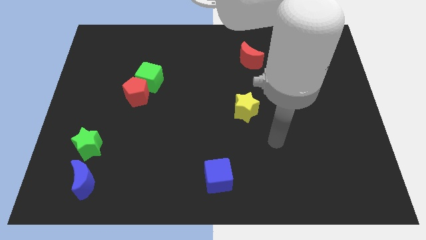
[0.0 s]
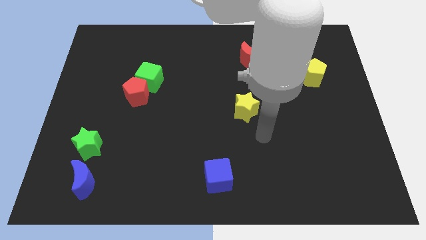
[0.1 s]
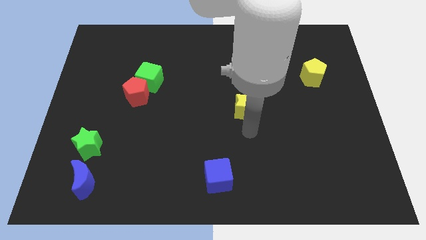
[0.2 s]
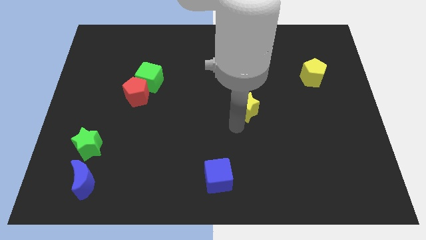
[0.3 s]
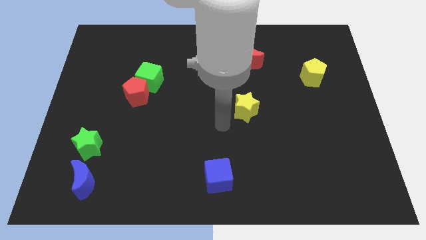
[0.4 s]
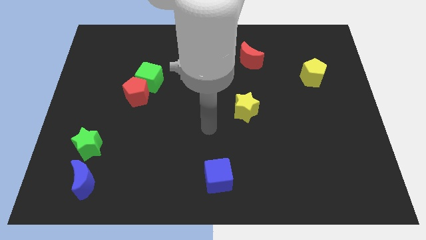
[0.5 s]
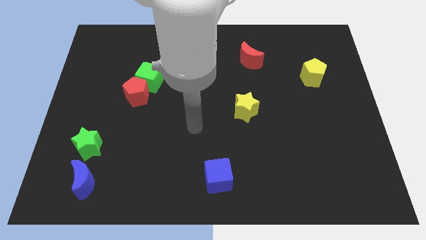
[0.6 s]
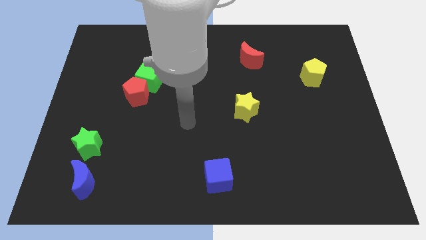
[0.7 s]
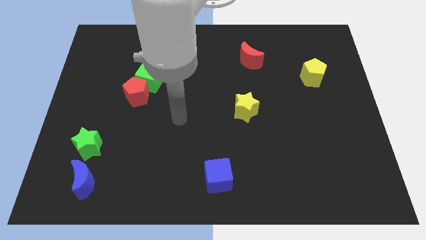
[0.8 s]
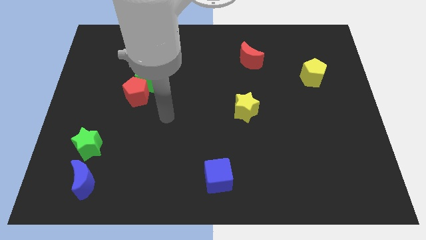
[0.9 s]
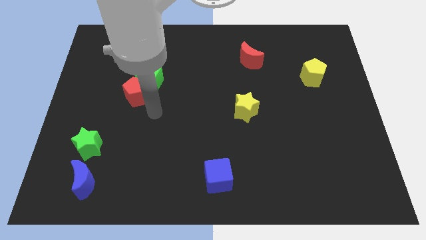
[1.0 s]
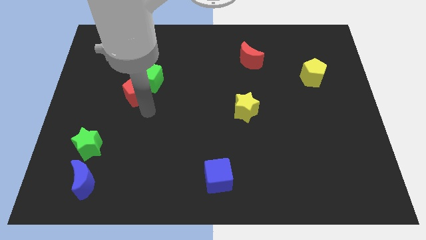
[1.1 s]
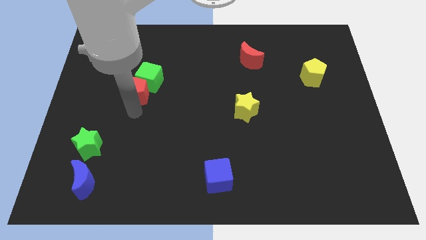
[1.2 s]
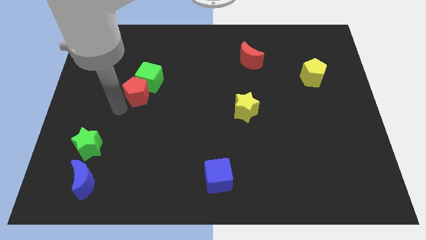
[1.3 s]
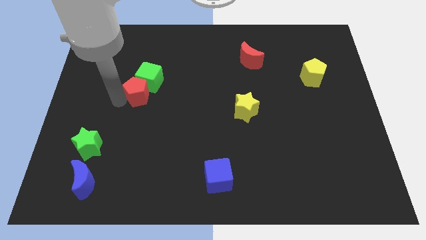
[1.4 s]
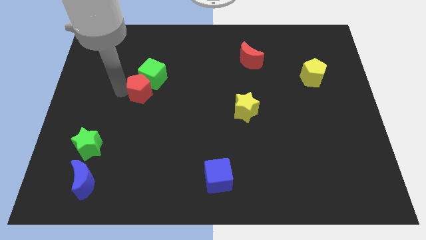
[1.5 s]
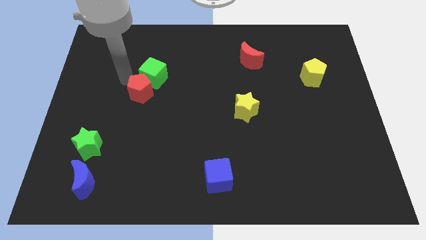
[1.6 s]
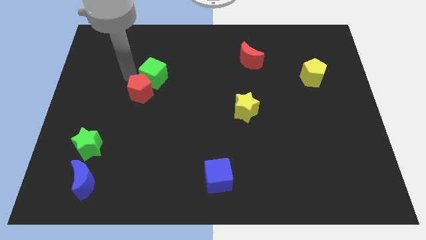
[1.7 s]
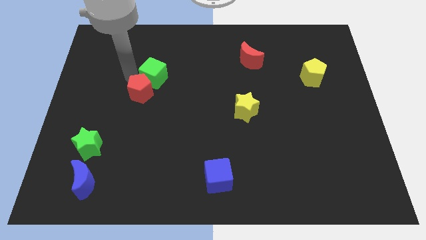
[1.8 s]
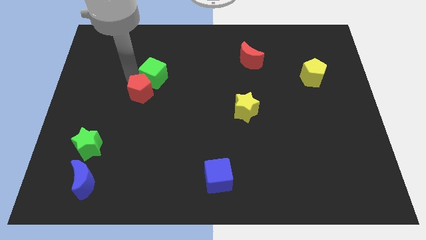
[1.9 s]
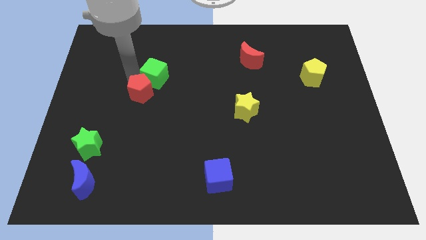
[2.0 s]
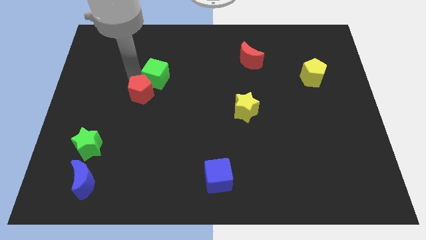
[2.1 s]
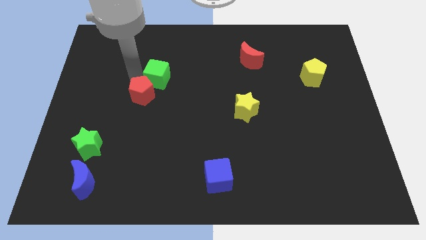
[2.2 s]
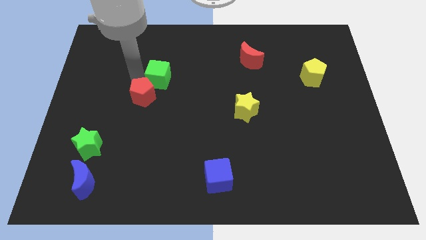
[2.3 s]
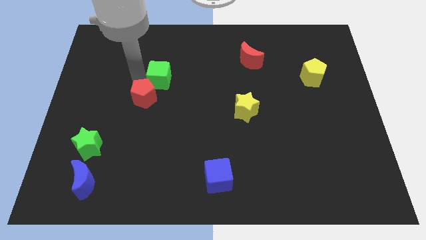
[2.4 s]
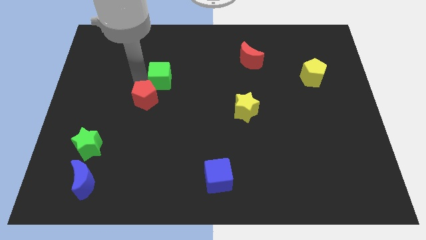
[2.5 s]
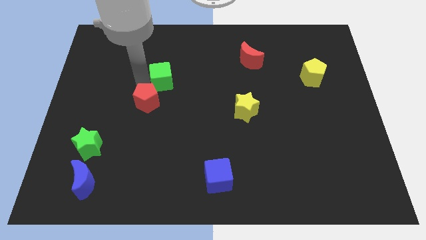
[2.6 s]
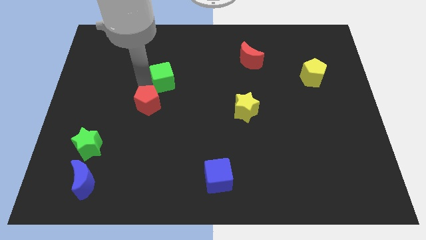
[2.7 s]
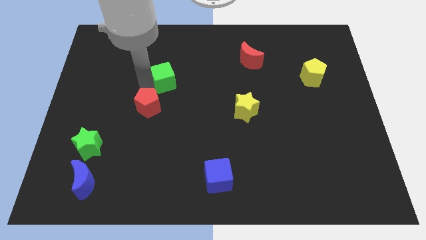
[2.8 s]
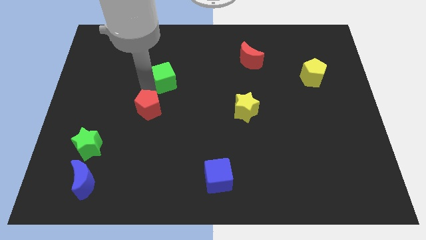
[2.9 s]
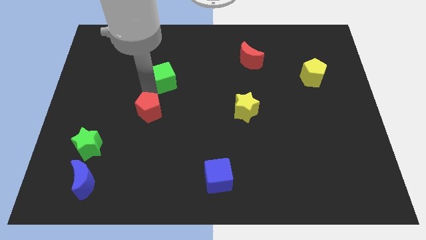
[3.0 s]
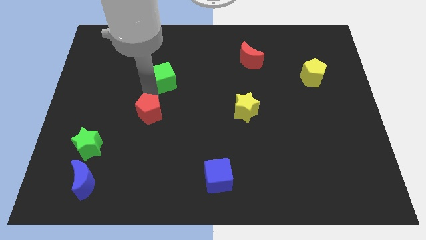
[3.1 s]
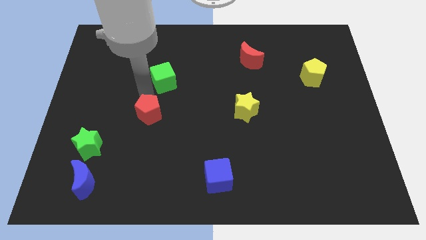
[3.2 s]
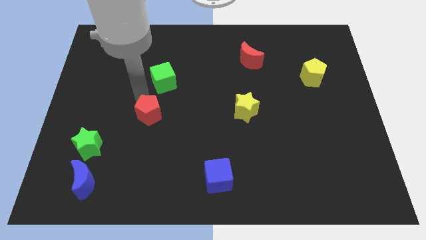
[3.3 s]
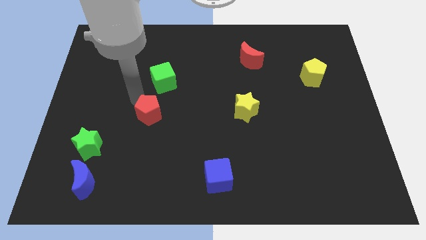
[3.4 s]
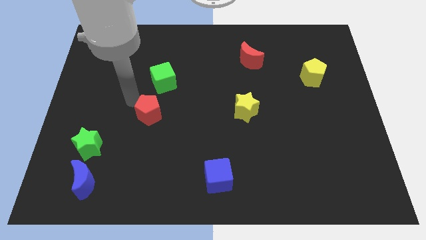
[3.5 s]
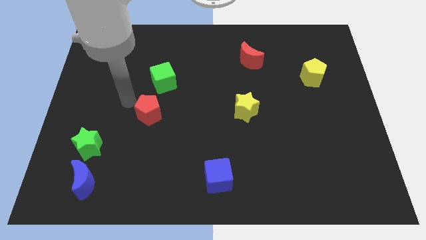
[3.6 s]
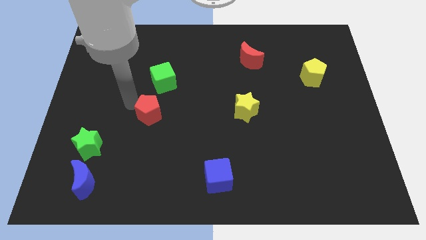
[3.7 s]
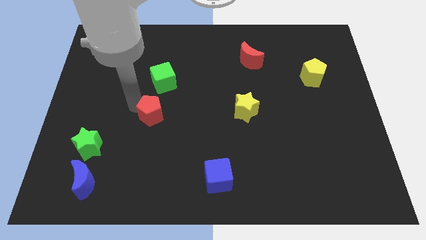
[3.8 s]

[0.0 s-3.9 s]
slightly move the red pentagon down and right diagonally

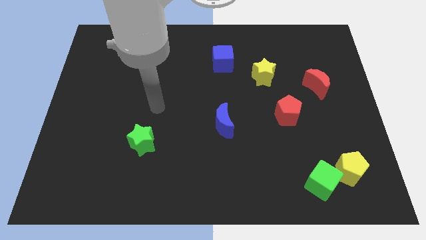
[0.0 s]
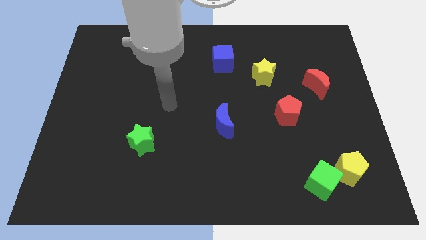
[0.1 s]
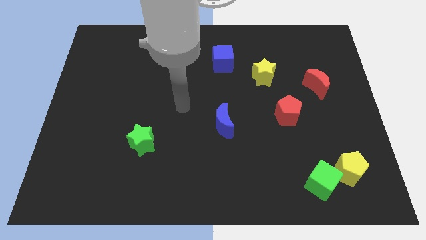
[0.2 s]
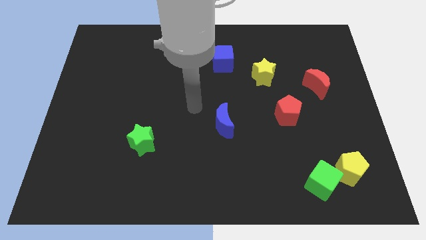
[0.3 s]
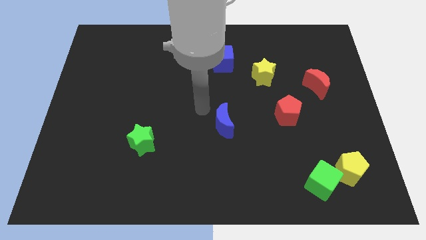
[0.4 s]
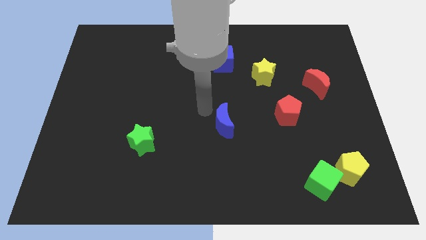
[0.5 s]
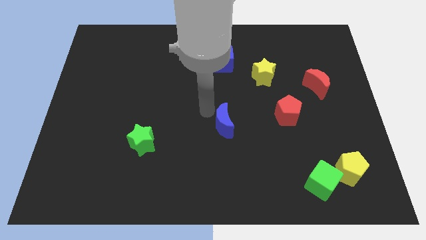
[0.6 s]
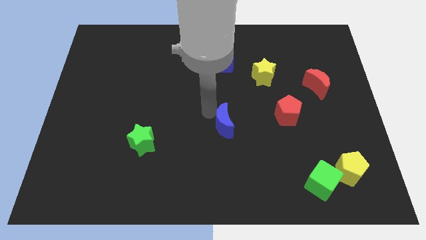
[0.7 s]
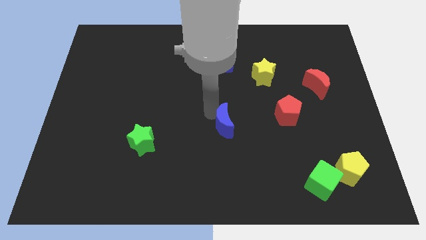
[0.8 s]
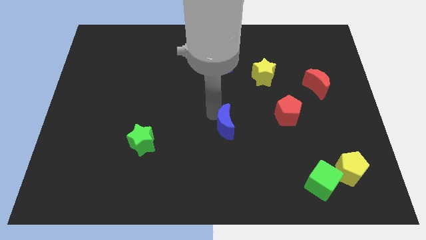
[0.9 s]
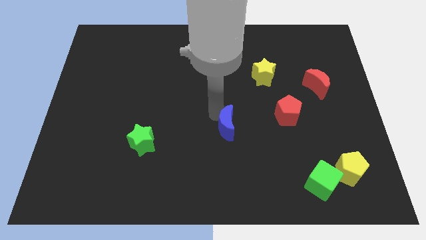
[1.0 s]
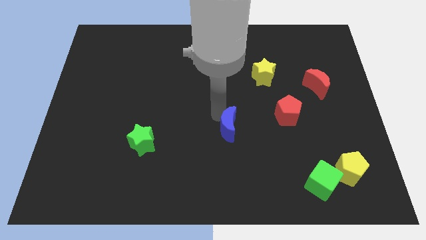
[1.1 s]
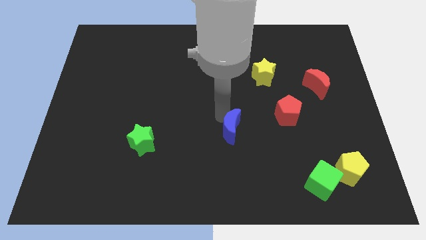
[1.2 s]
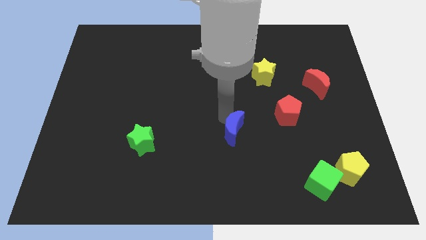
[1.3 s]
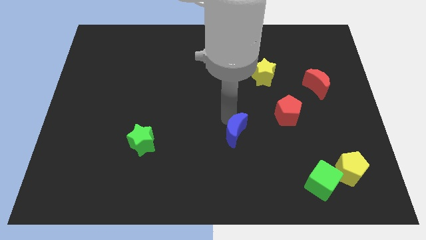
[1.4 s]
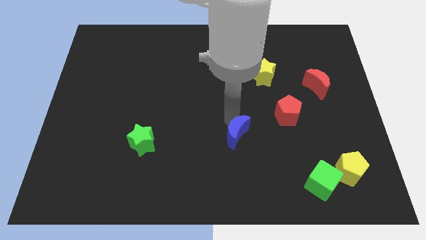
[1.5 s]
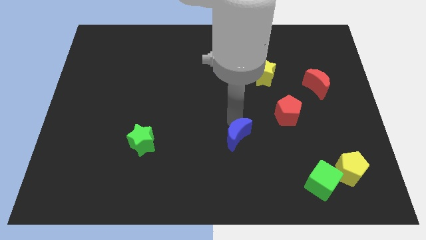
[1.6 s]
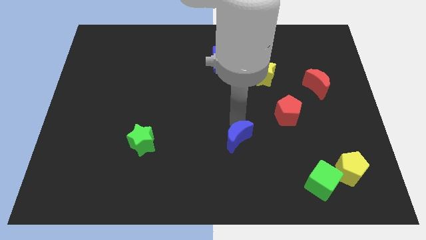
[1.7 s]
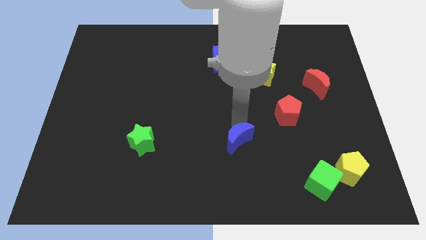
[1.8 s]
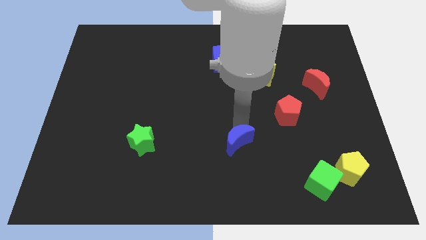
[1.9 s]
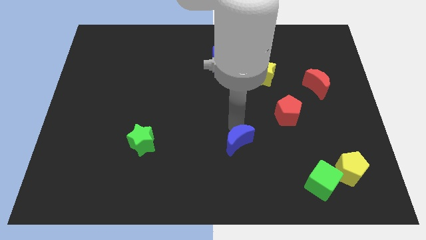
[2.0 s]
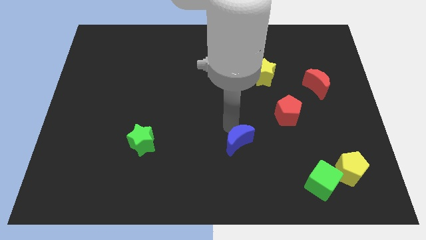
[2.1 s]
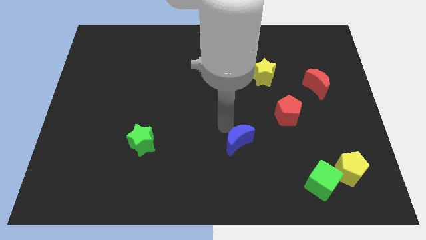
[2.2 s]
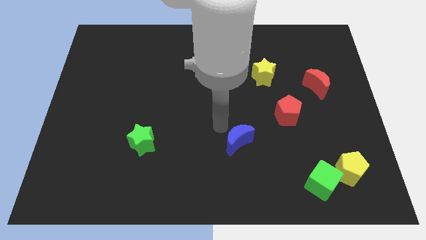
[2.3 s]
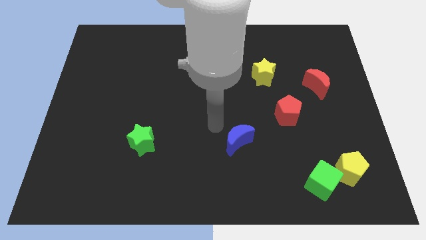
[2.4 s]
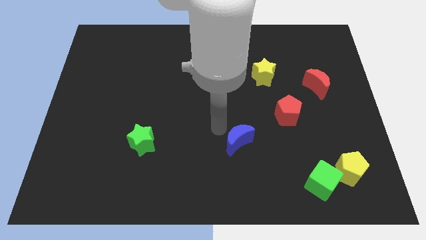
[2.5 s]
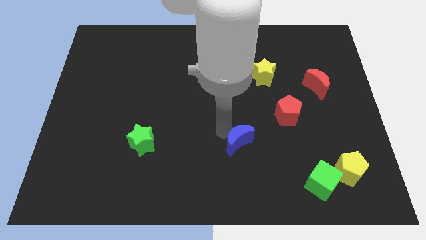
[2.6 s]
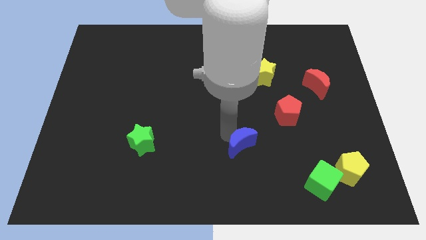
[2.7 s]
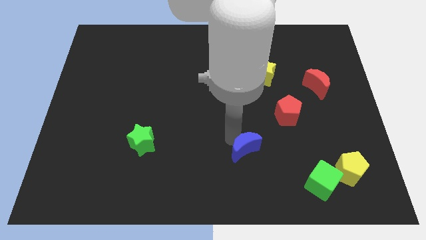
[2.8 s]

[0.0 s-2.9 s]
slightly push the blue moon down and to the right diagonally

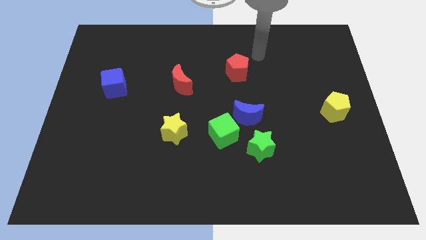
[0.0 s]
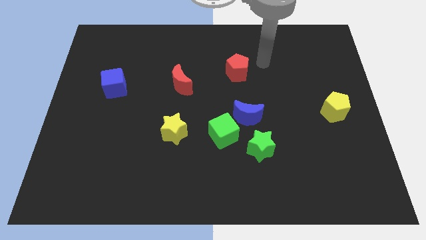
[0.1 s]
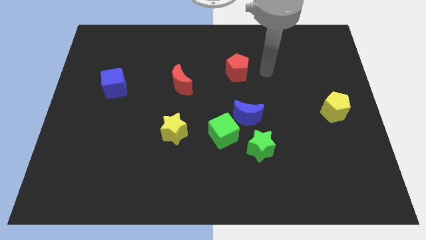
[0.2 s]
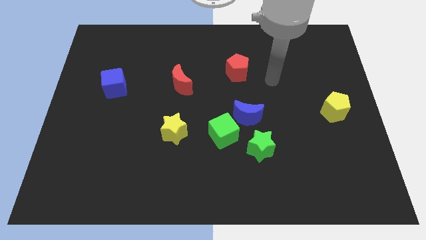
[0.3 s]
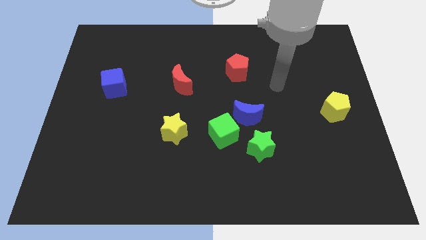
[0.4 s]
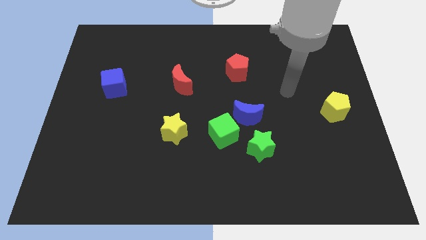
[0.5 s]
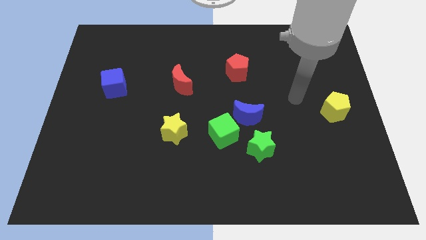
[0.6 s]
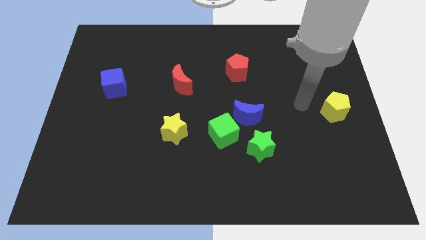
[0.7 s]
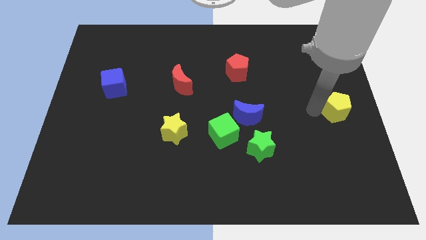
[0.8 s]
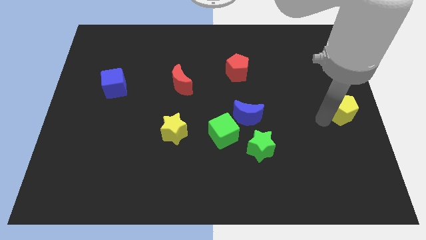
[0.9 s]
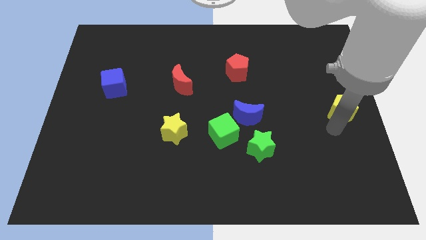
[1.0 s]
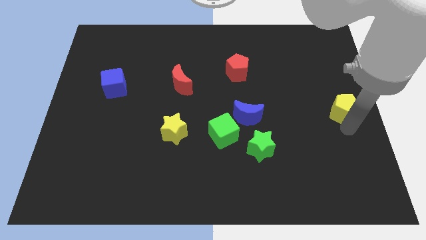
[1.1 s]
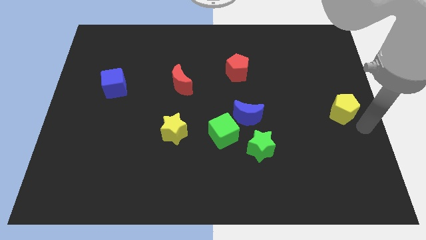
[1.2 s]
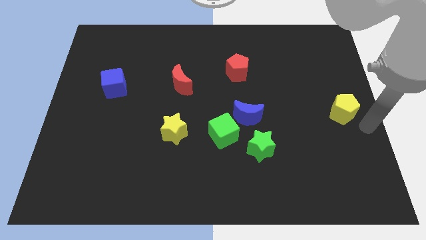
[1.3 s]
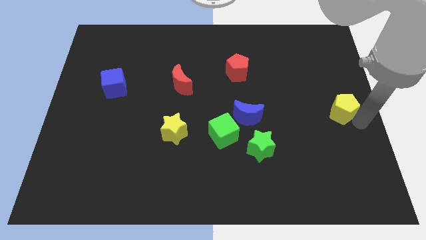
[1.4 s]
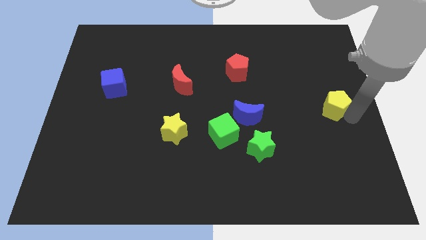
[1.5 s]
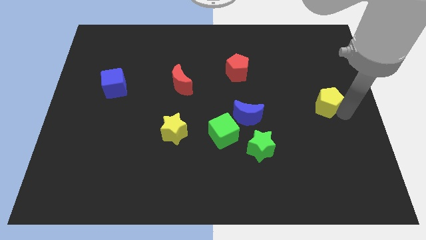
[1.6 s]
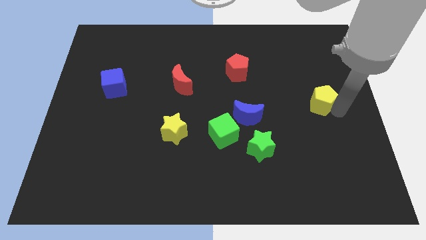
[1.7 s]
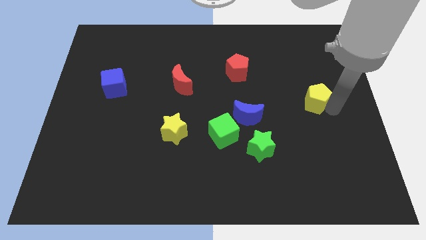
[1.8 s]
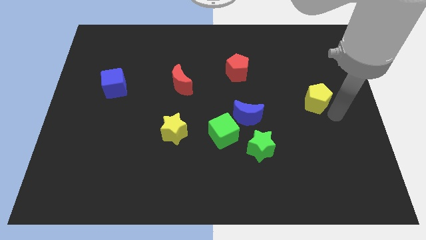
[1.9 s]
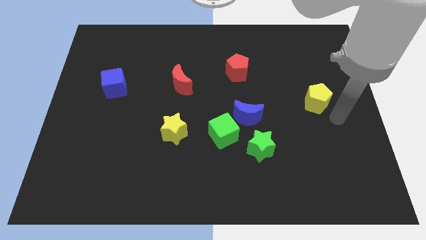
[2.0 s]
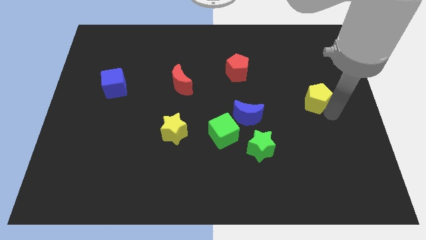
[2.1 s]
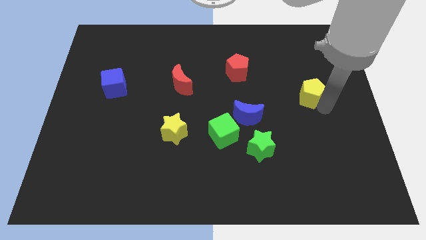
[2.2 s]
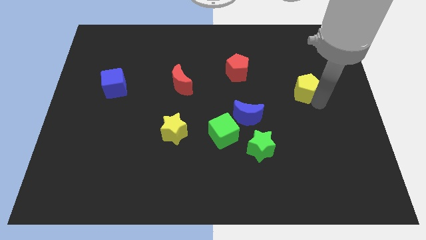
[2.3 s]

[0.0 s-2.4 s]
slide the yellow pentagon a little bit diagonally up and left
